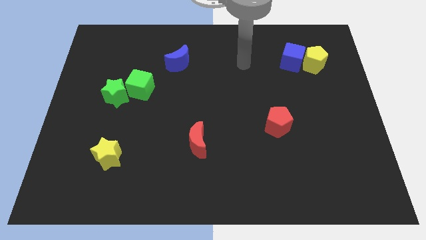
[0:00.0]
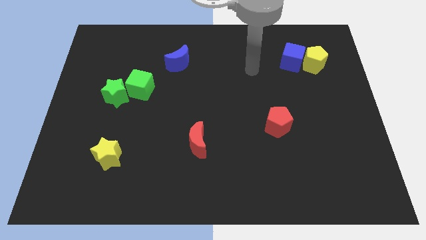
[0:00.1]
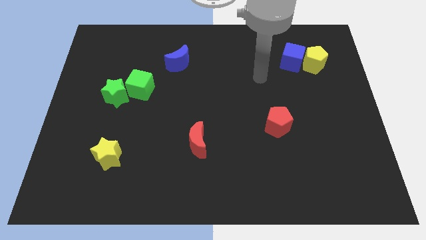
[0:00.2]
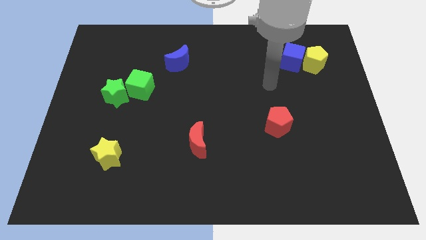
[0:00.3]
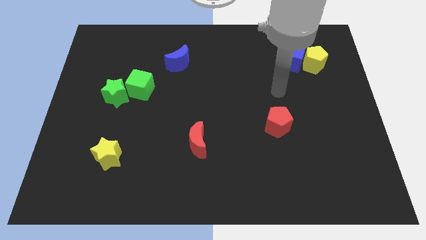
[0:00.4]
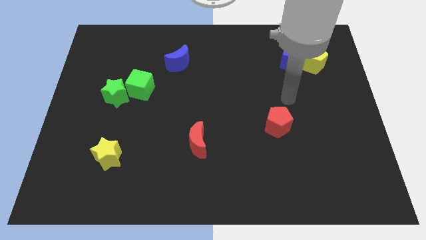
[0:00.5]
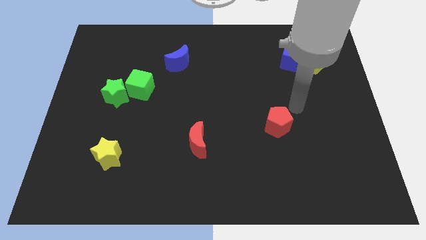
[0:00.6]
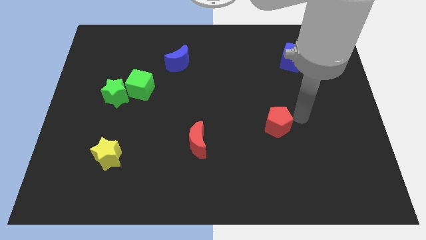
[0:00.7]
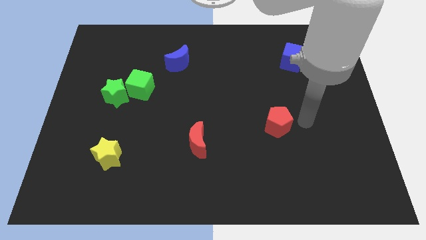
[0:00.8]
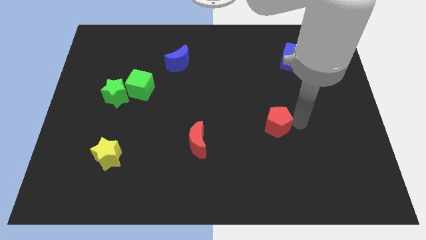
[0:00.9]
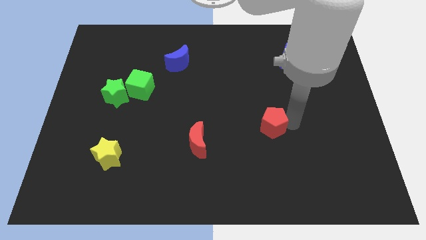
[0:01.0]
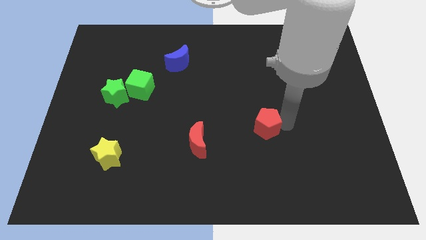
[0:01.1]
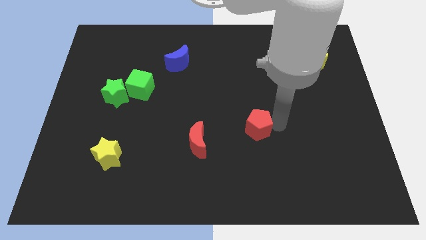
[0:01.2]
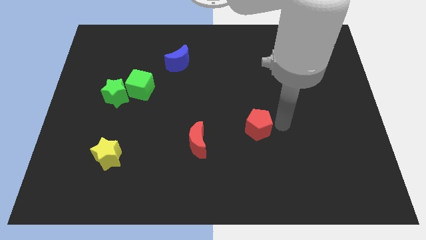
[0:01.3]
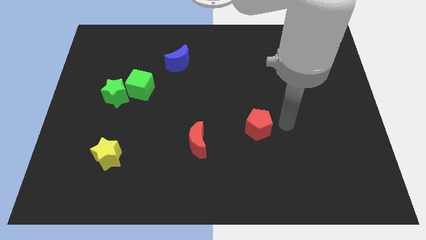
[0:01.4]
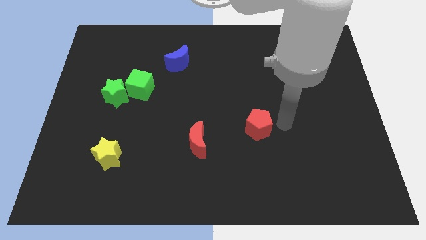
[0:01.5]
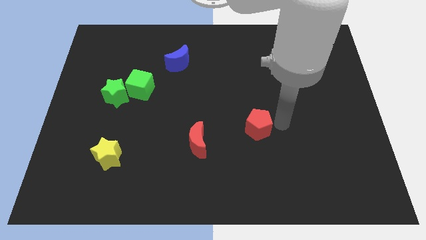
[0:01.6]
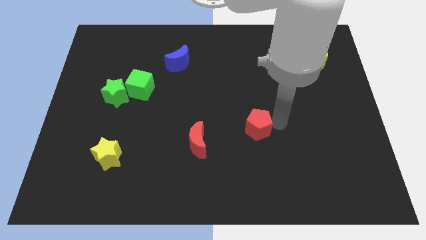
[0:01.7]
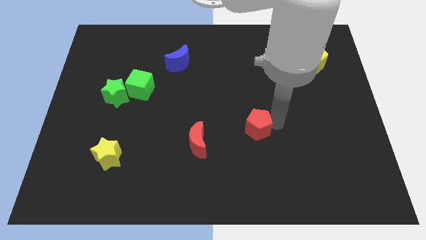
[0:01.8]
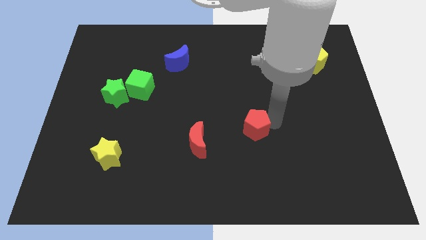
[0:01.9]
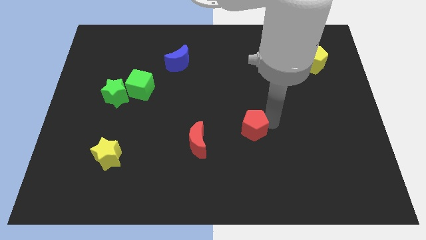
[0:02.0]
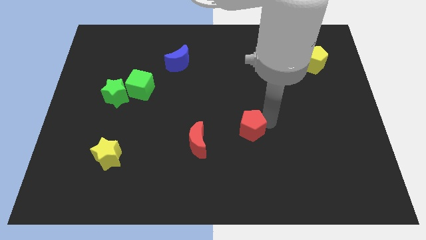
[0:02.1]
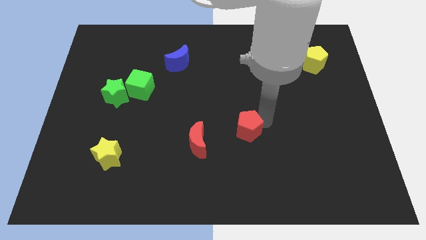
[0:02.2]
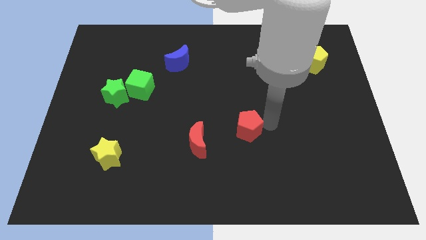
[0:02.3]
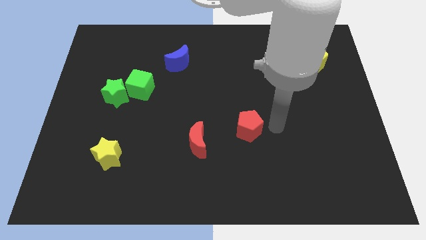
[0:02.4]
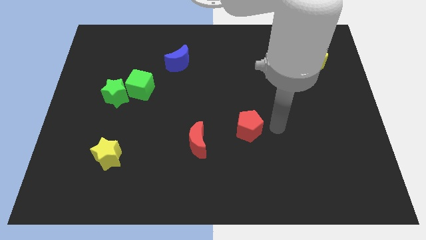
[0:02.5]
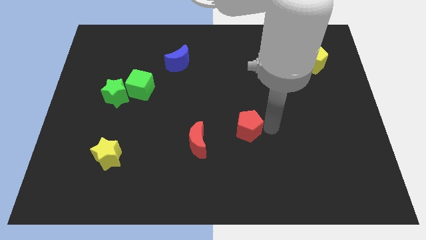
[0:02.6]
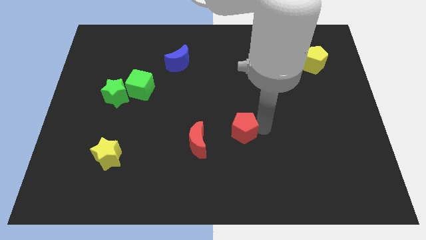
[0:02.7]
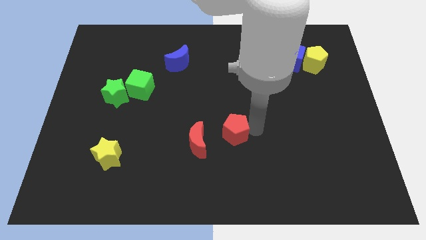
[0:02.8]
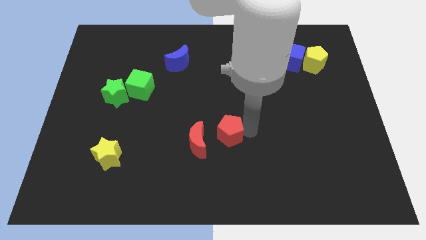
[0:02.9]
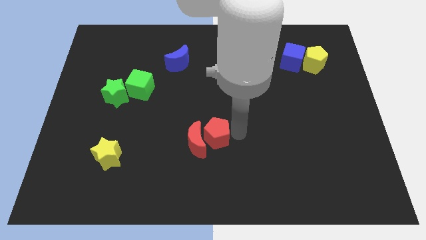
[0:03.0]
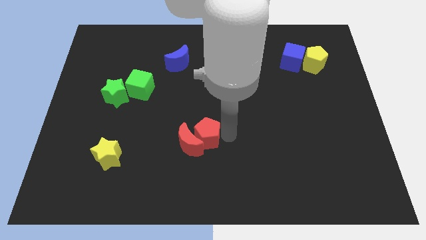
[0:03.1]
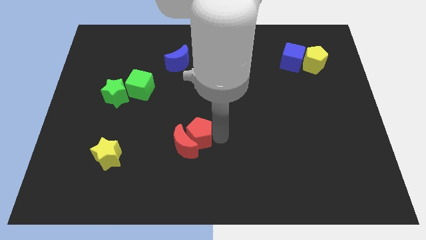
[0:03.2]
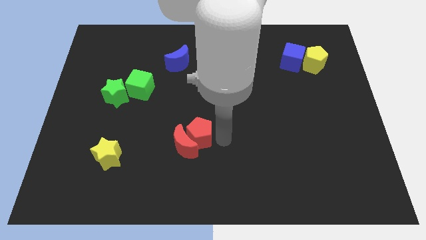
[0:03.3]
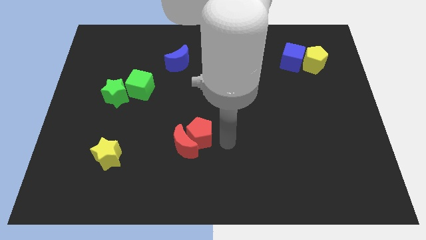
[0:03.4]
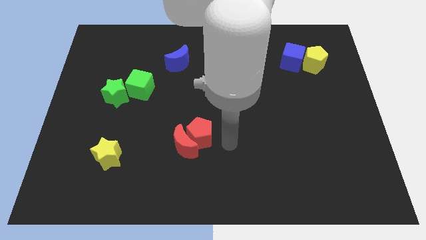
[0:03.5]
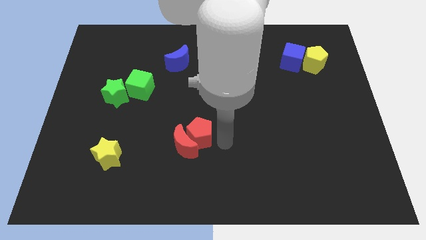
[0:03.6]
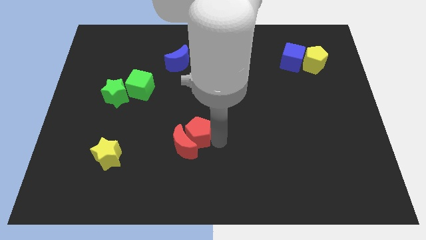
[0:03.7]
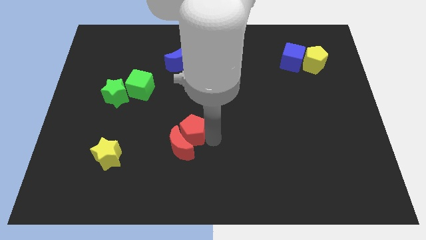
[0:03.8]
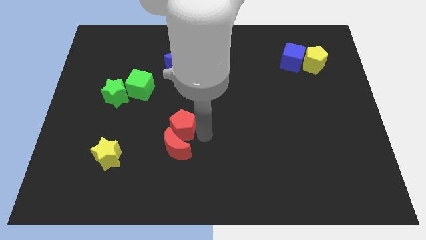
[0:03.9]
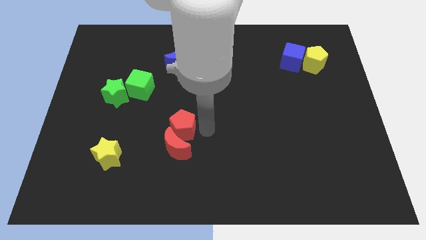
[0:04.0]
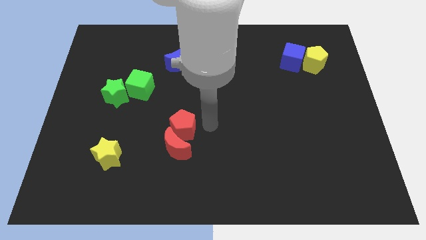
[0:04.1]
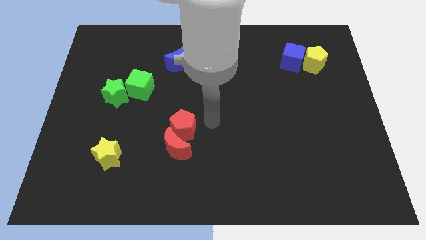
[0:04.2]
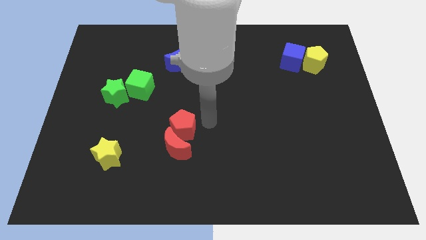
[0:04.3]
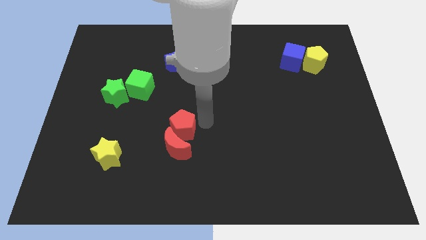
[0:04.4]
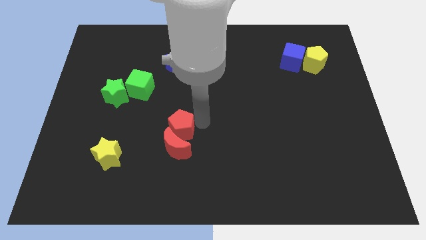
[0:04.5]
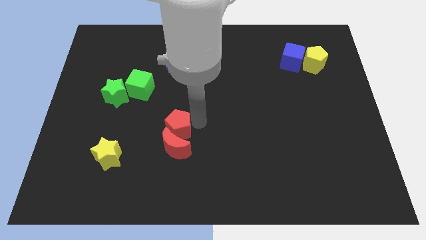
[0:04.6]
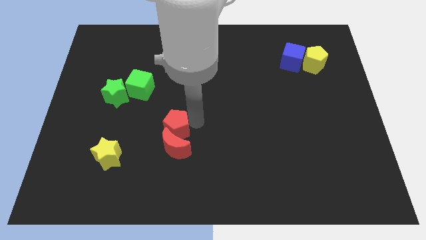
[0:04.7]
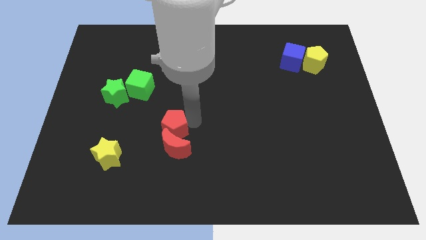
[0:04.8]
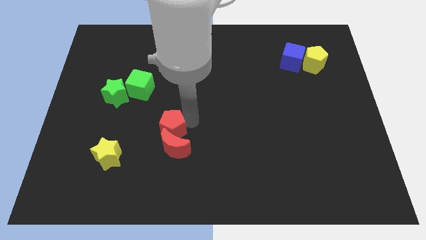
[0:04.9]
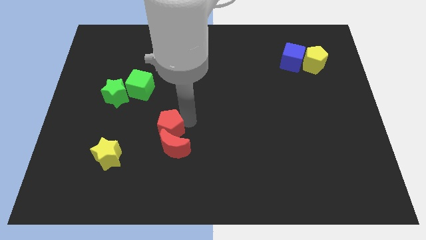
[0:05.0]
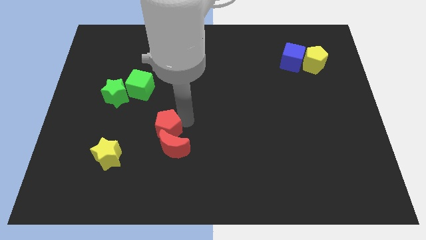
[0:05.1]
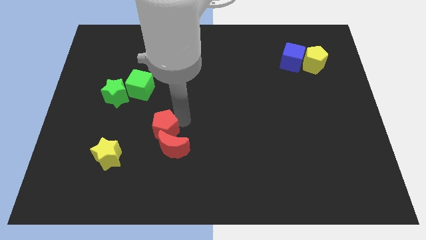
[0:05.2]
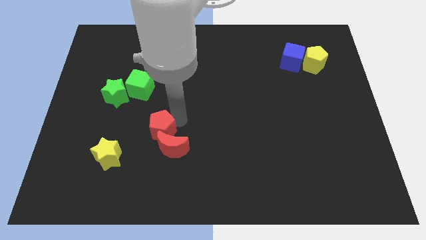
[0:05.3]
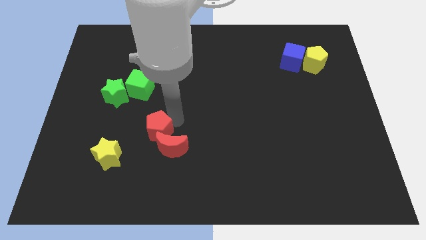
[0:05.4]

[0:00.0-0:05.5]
push the red pentagon to the top right side of the yellow star

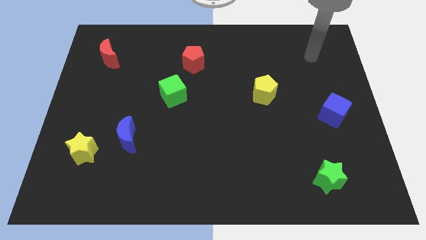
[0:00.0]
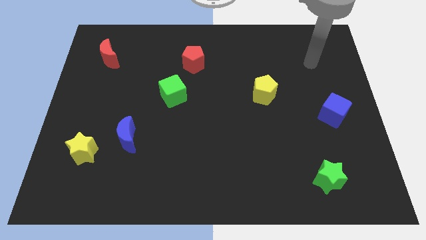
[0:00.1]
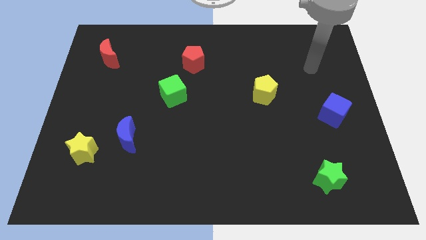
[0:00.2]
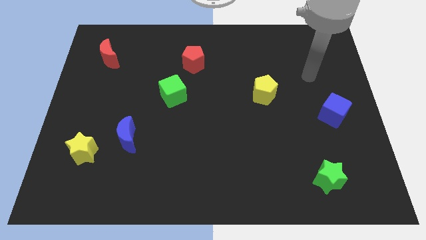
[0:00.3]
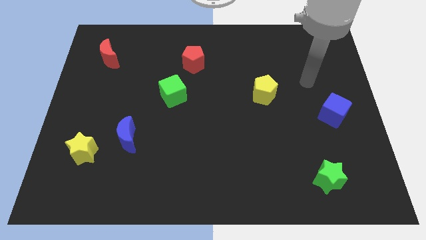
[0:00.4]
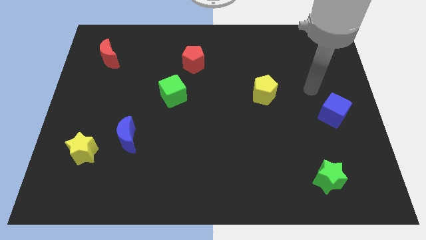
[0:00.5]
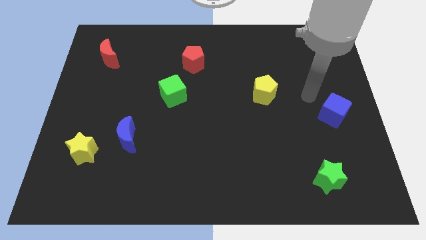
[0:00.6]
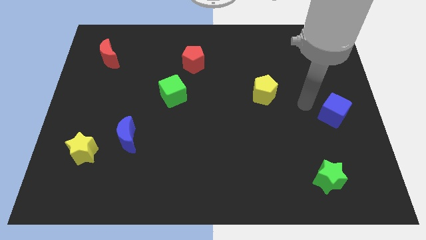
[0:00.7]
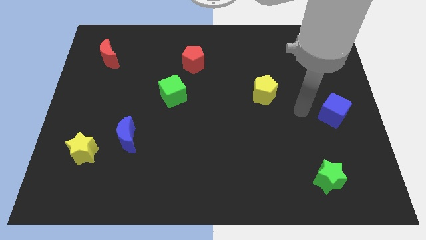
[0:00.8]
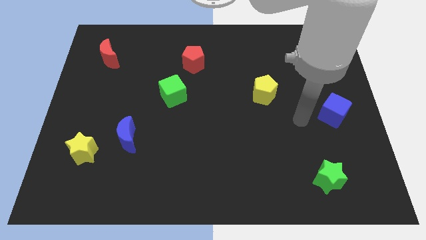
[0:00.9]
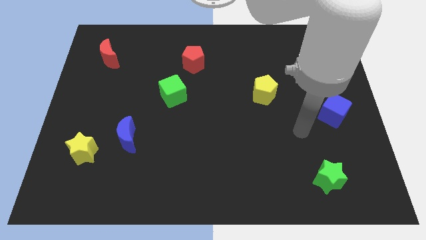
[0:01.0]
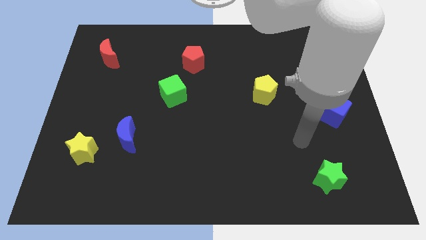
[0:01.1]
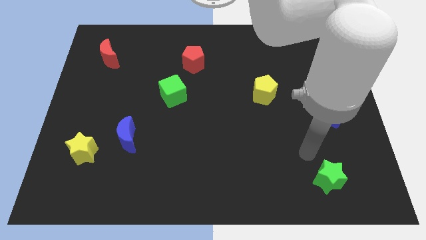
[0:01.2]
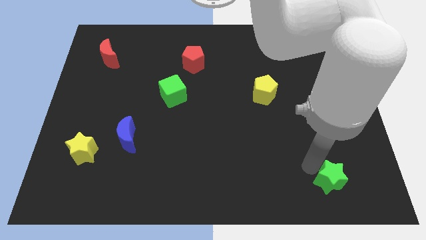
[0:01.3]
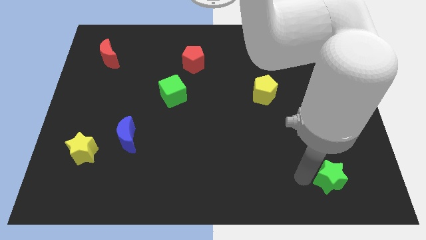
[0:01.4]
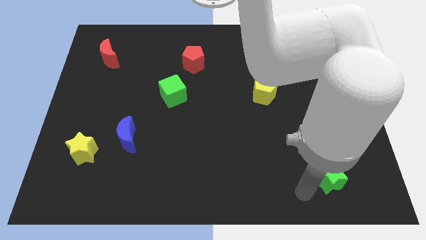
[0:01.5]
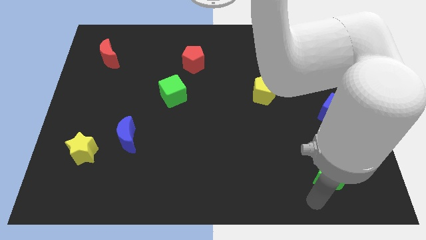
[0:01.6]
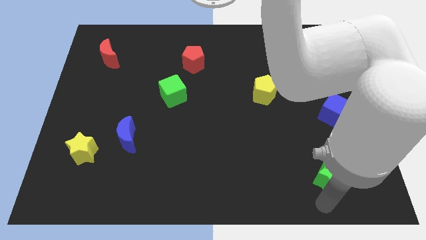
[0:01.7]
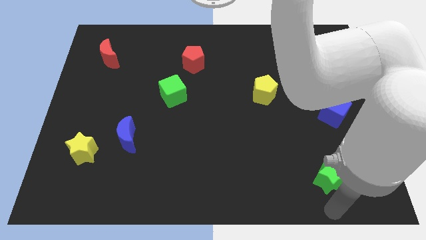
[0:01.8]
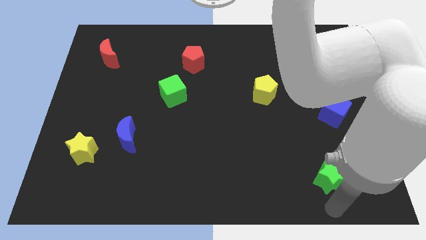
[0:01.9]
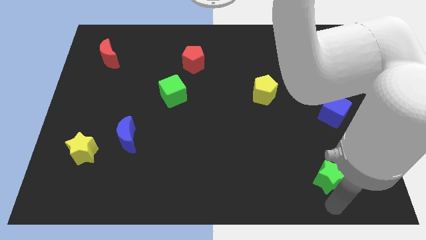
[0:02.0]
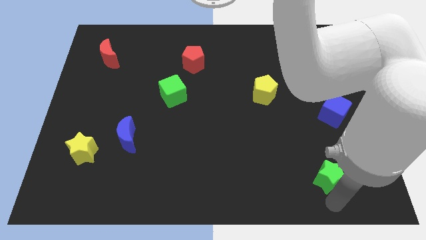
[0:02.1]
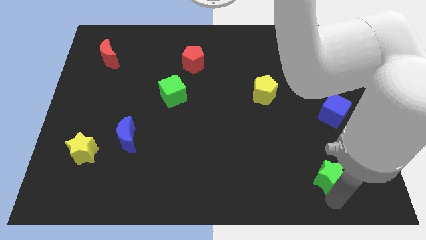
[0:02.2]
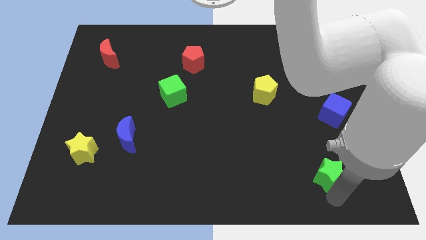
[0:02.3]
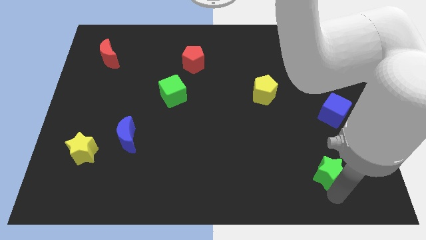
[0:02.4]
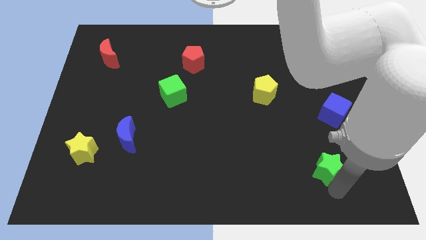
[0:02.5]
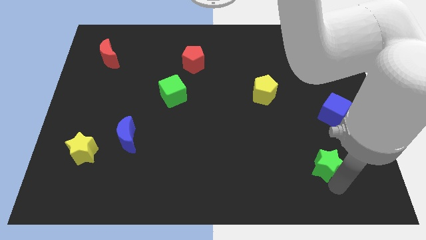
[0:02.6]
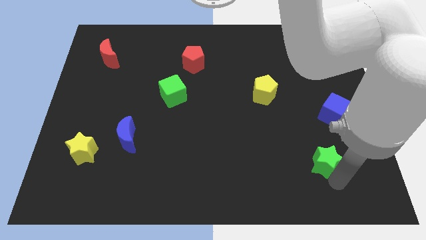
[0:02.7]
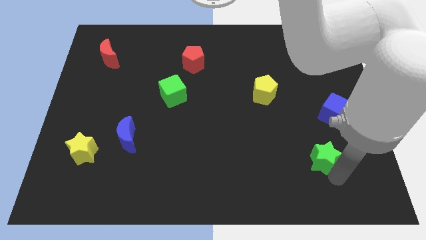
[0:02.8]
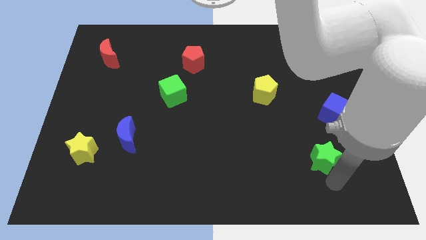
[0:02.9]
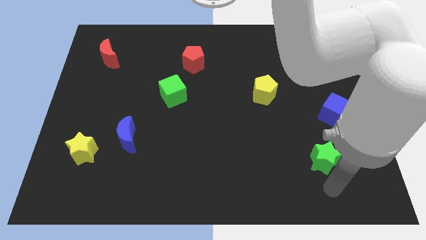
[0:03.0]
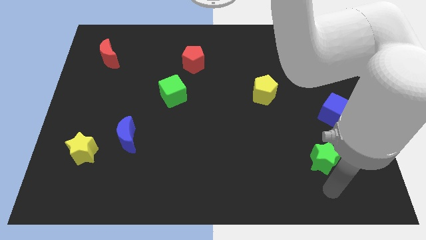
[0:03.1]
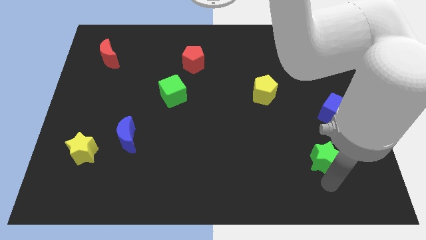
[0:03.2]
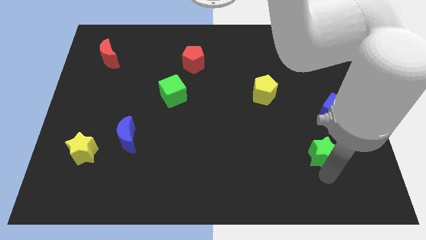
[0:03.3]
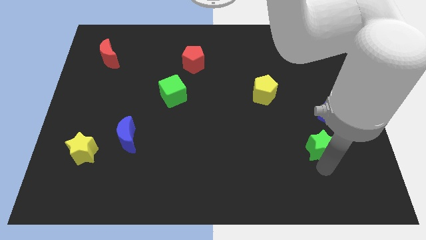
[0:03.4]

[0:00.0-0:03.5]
slide the green star diagonally down and to the left of the blue cube
